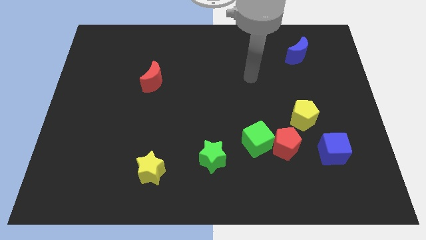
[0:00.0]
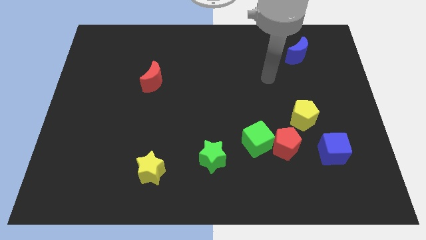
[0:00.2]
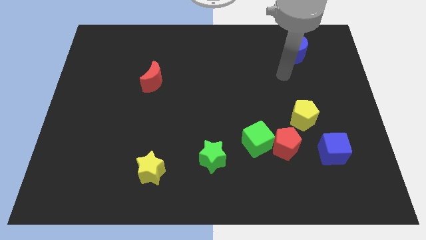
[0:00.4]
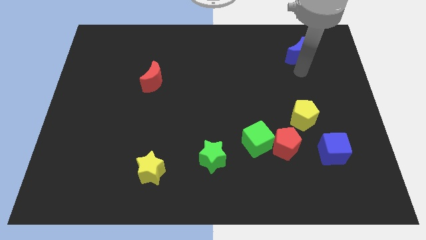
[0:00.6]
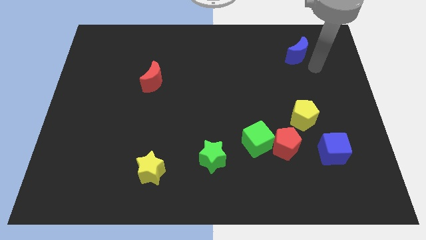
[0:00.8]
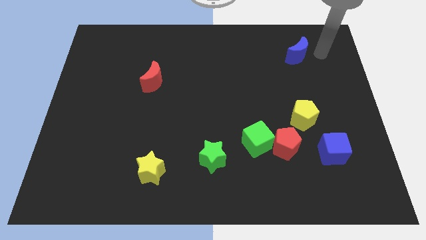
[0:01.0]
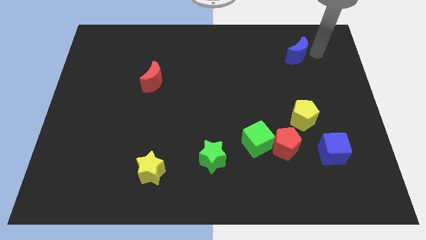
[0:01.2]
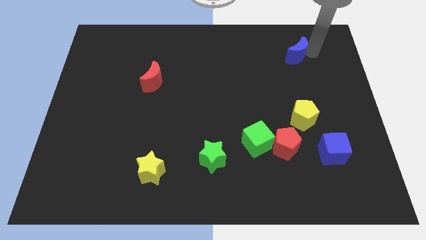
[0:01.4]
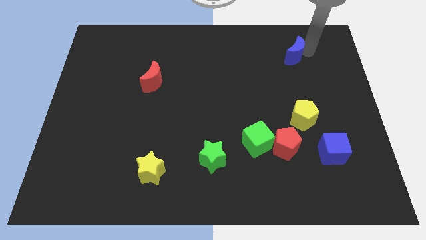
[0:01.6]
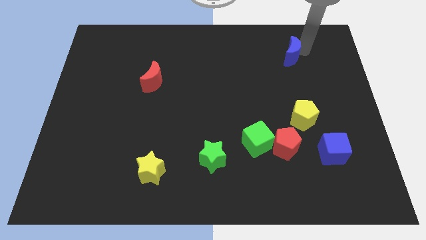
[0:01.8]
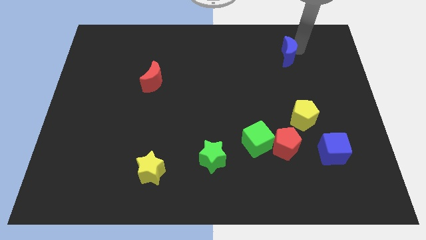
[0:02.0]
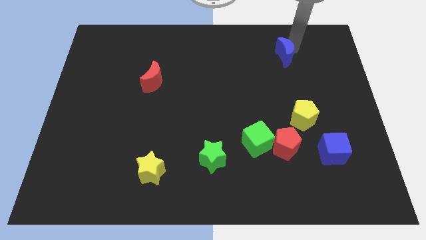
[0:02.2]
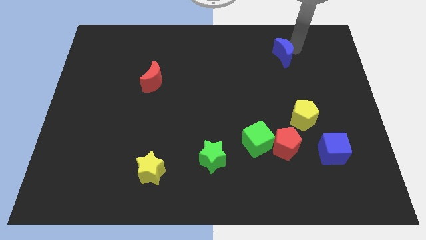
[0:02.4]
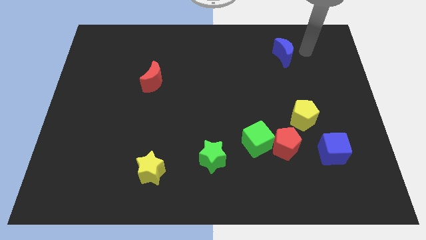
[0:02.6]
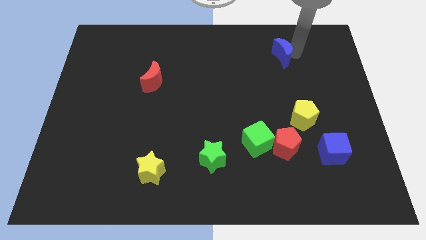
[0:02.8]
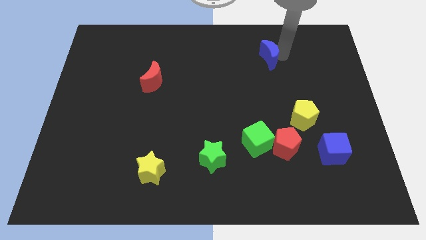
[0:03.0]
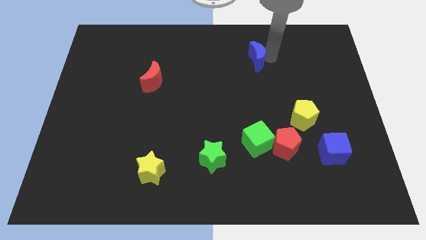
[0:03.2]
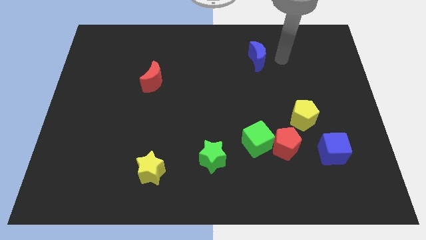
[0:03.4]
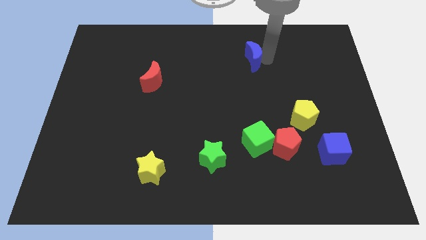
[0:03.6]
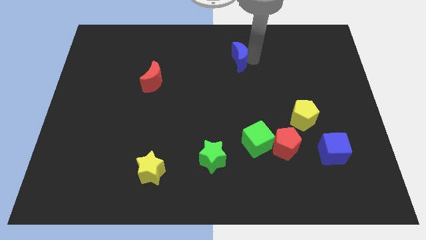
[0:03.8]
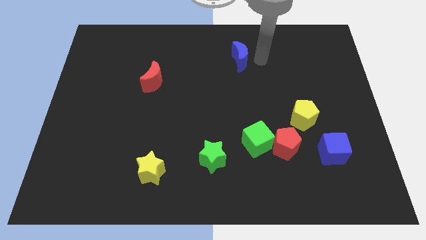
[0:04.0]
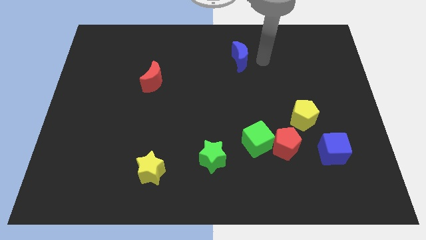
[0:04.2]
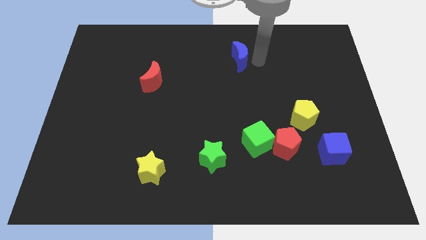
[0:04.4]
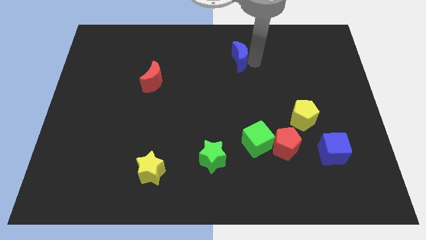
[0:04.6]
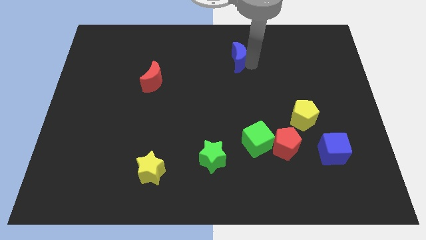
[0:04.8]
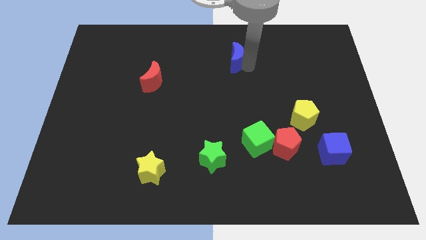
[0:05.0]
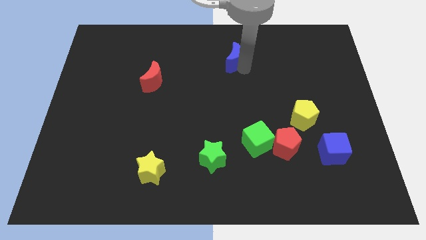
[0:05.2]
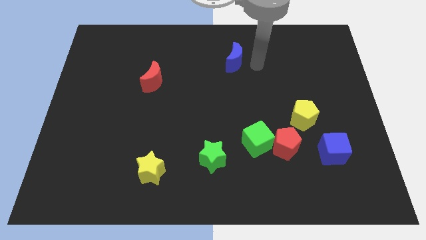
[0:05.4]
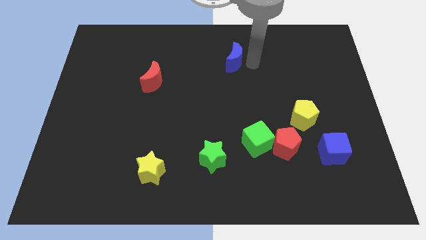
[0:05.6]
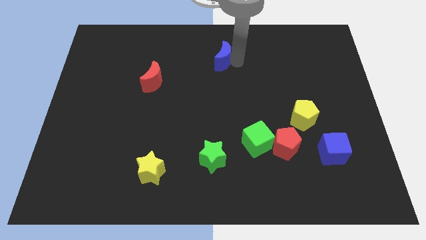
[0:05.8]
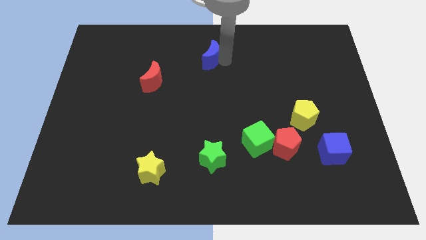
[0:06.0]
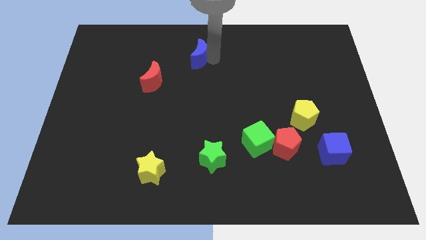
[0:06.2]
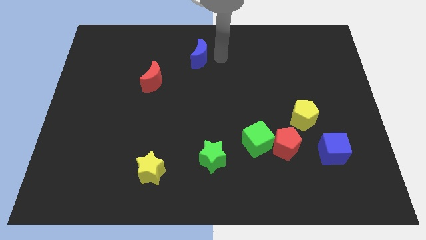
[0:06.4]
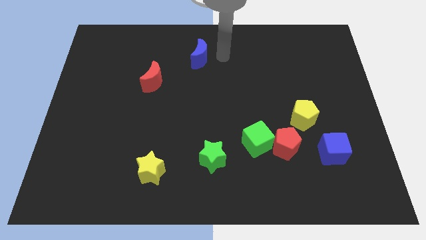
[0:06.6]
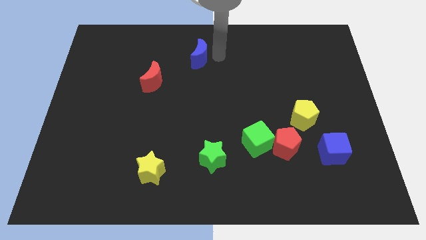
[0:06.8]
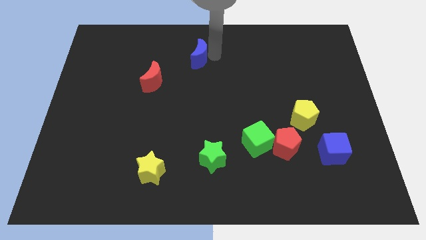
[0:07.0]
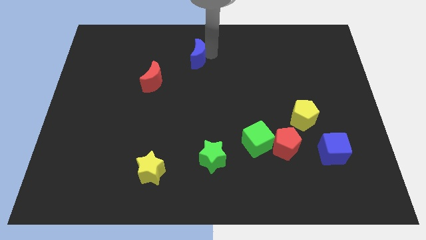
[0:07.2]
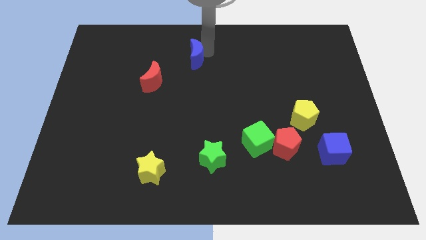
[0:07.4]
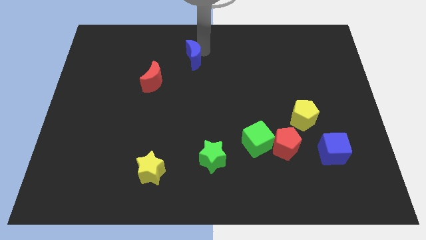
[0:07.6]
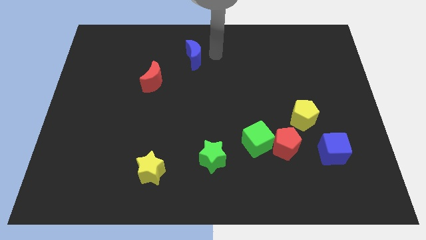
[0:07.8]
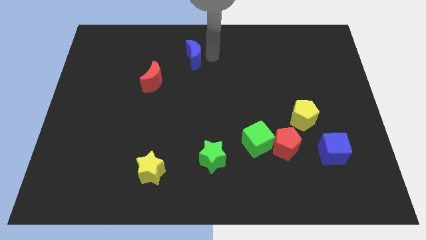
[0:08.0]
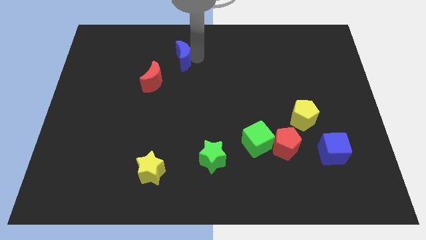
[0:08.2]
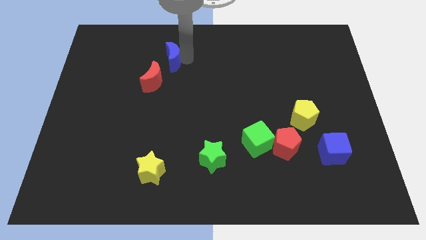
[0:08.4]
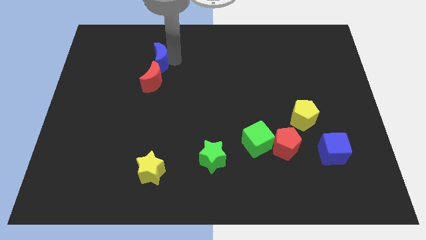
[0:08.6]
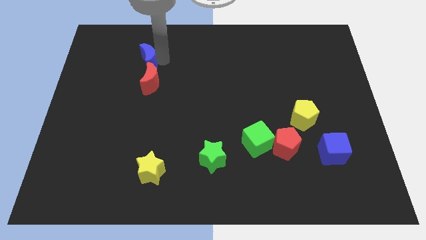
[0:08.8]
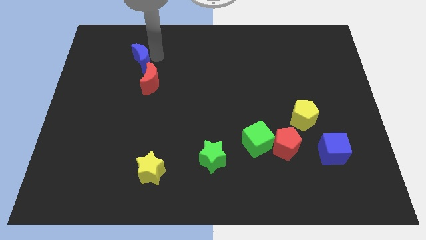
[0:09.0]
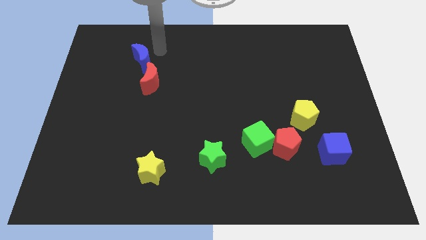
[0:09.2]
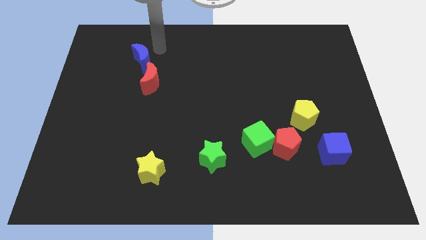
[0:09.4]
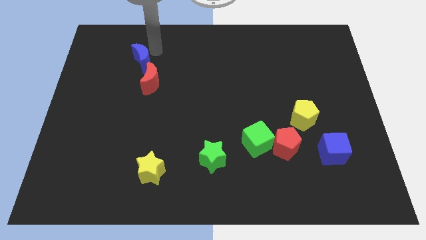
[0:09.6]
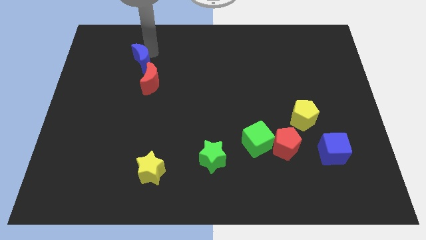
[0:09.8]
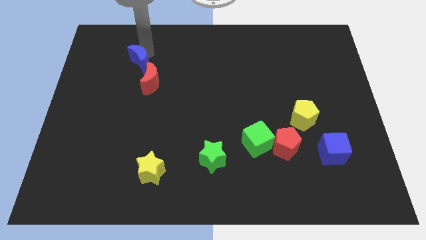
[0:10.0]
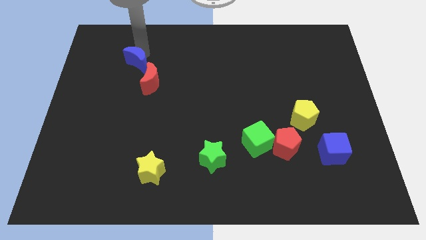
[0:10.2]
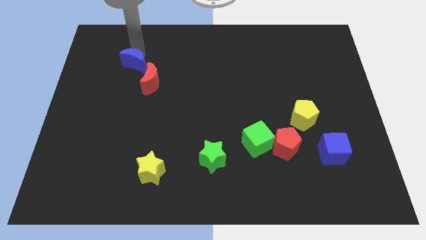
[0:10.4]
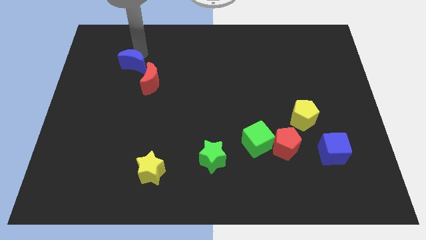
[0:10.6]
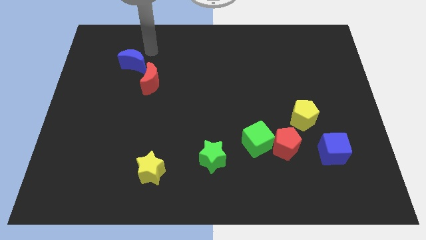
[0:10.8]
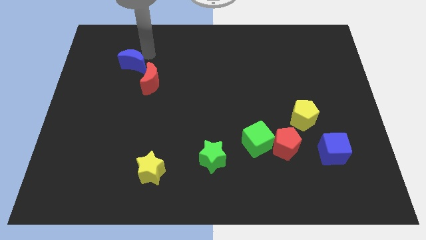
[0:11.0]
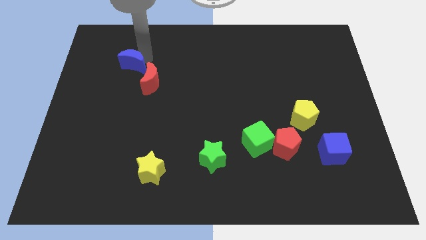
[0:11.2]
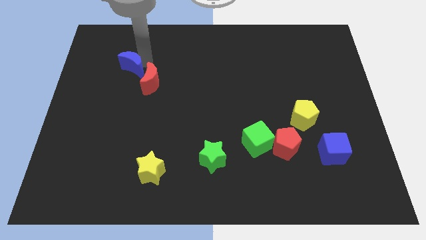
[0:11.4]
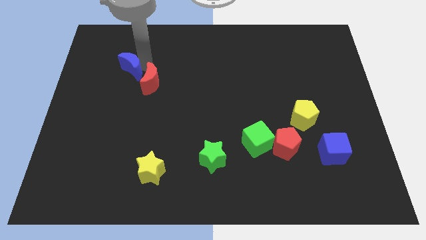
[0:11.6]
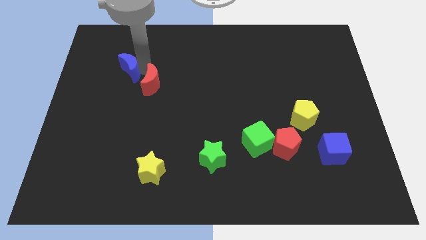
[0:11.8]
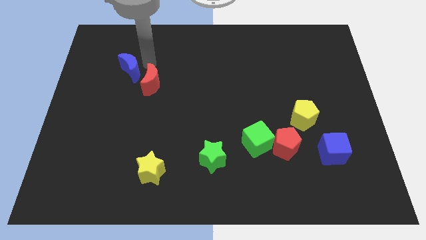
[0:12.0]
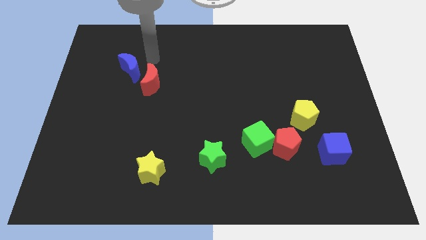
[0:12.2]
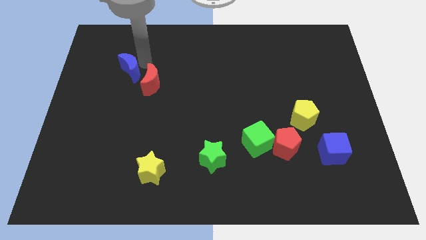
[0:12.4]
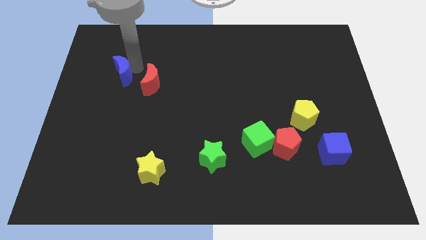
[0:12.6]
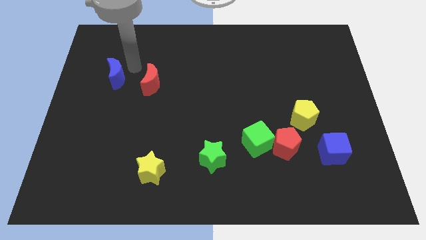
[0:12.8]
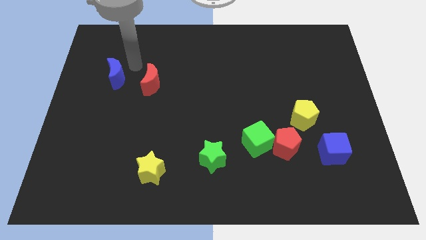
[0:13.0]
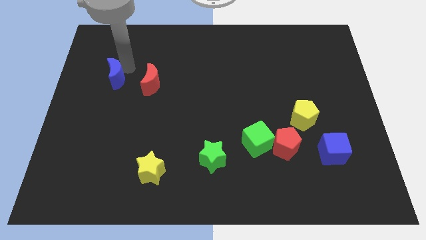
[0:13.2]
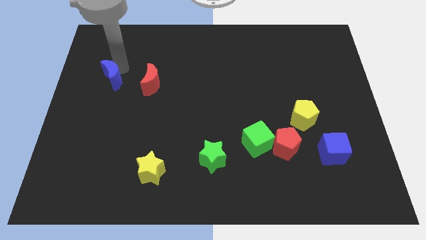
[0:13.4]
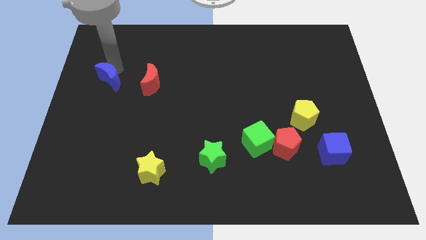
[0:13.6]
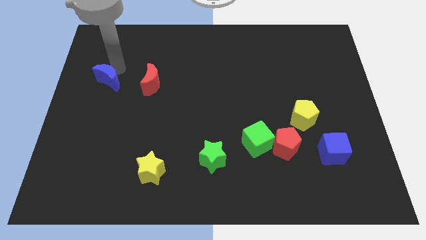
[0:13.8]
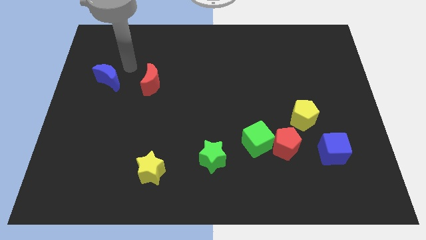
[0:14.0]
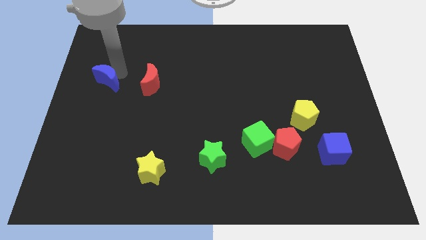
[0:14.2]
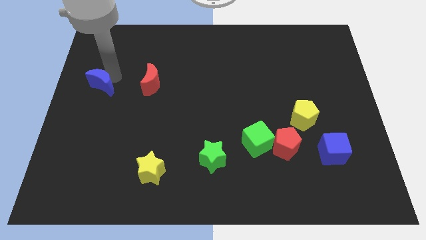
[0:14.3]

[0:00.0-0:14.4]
put the blue moon to the left side of the board
